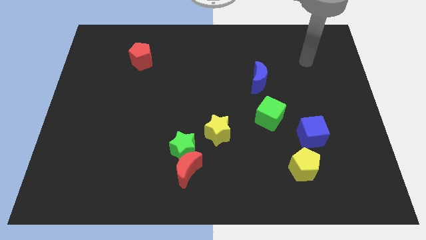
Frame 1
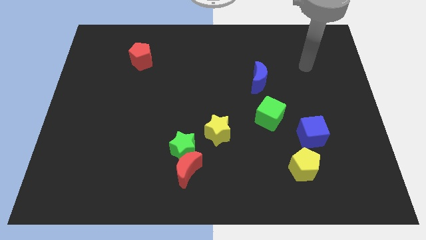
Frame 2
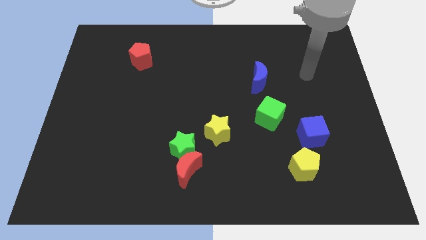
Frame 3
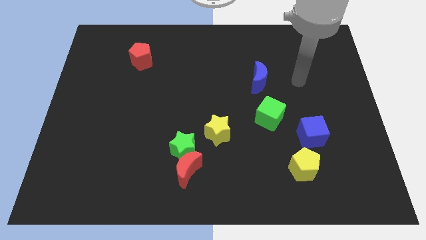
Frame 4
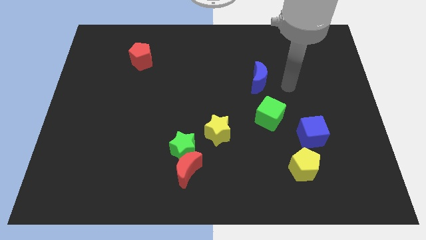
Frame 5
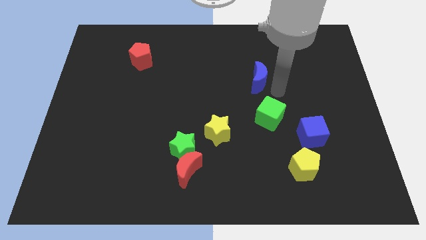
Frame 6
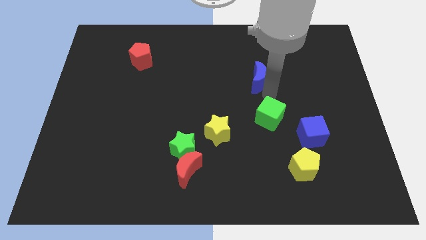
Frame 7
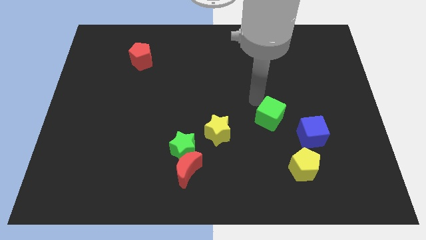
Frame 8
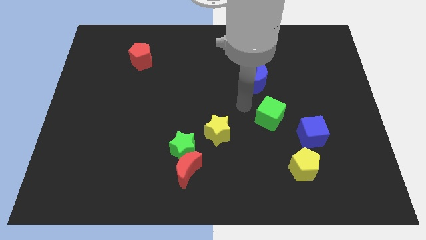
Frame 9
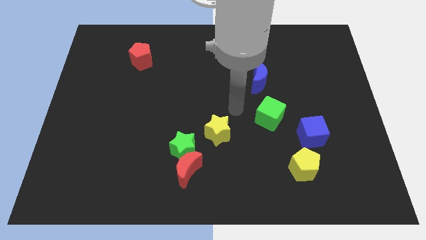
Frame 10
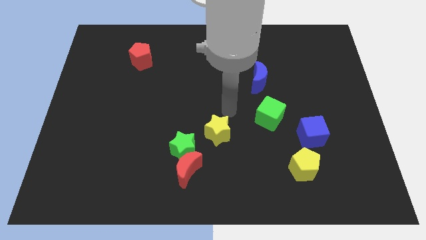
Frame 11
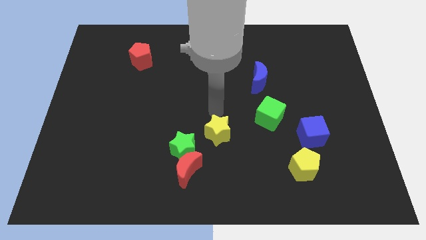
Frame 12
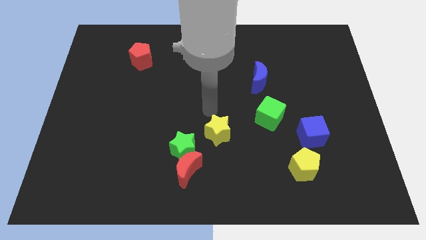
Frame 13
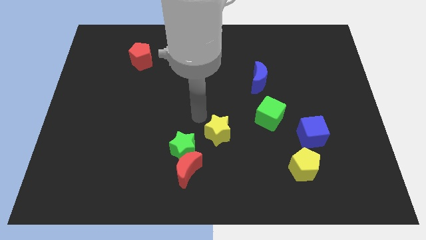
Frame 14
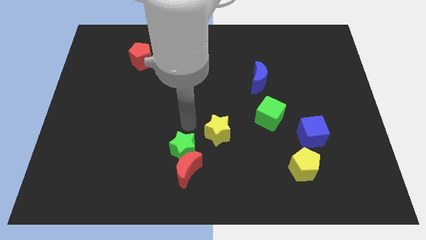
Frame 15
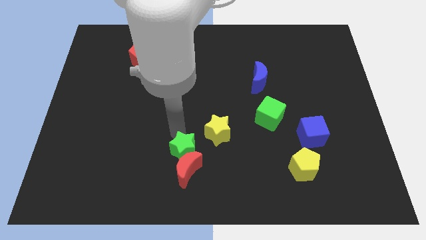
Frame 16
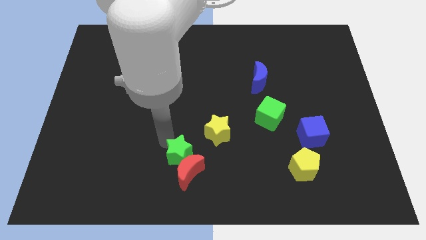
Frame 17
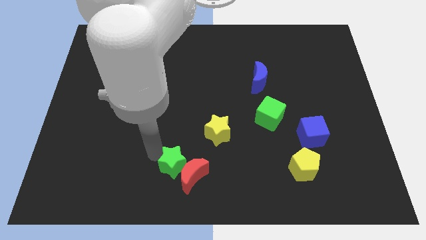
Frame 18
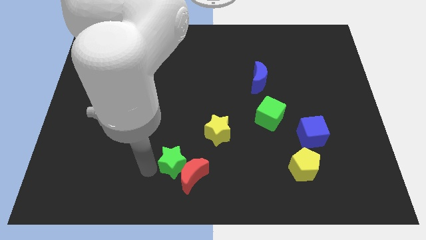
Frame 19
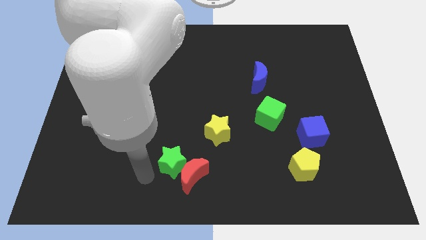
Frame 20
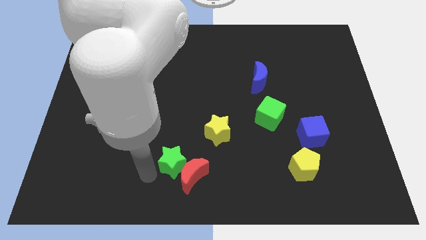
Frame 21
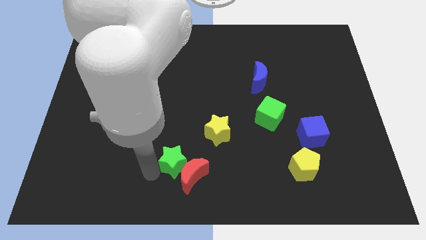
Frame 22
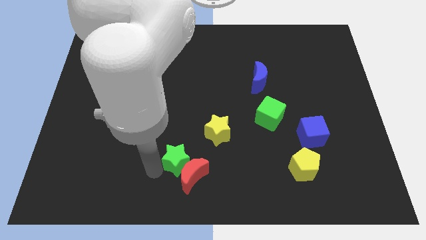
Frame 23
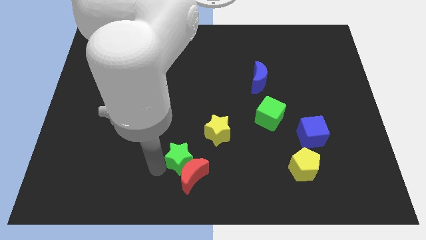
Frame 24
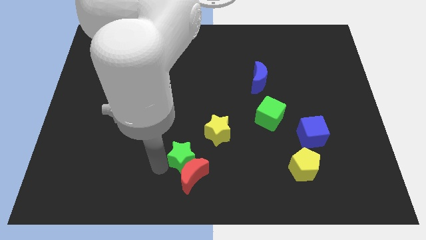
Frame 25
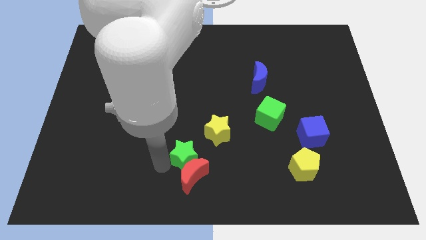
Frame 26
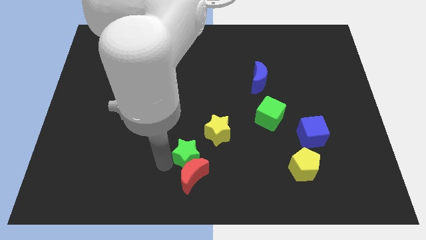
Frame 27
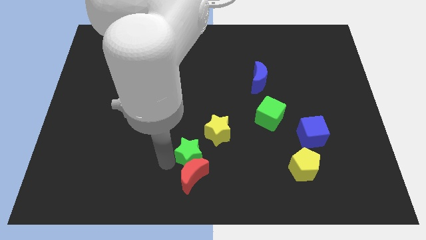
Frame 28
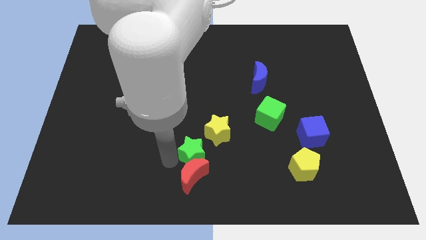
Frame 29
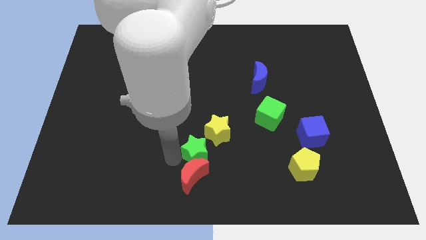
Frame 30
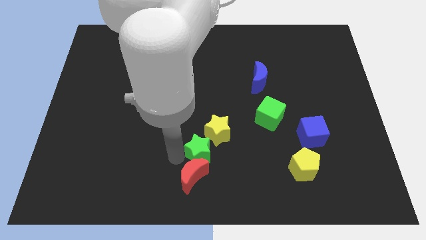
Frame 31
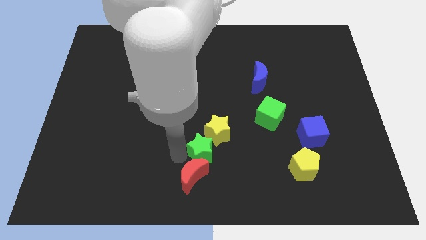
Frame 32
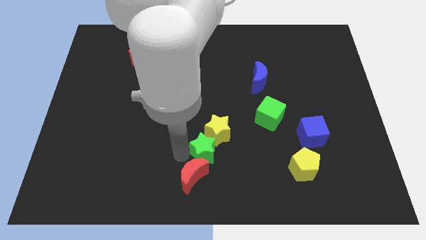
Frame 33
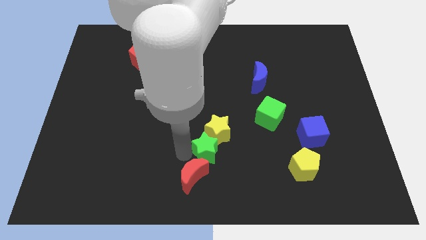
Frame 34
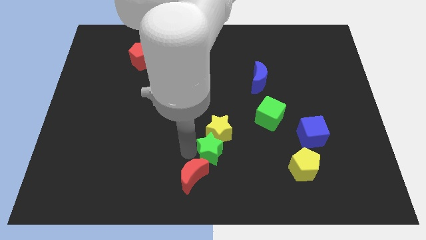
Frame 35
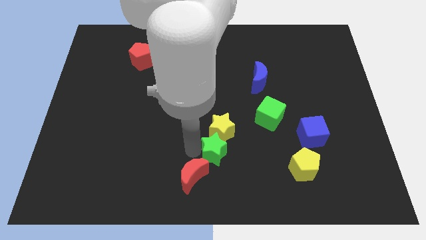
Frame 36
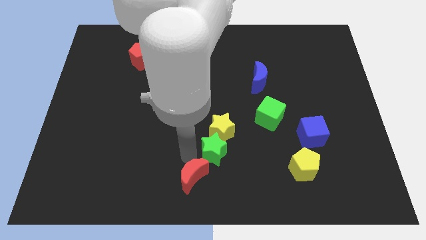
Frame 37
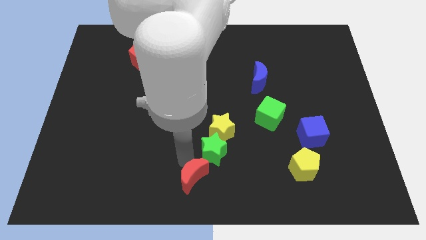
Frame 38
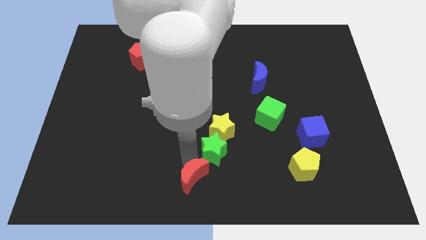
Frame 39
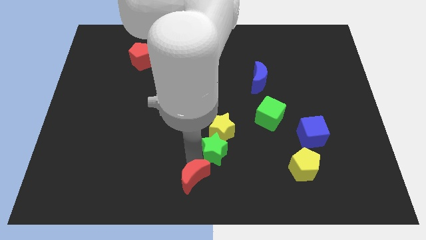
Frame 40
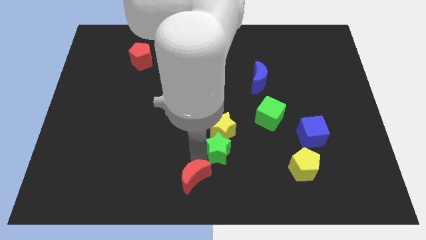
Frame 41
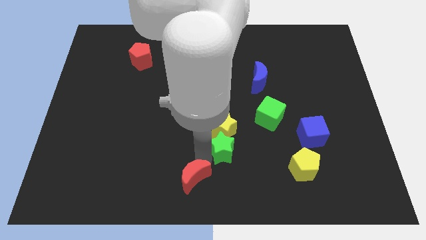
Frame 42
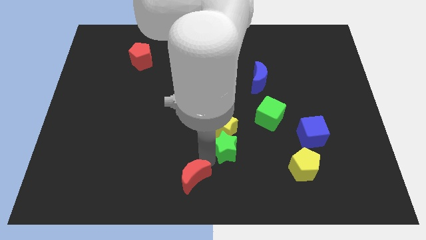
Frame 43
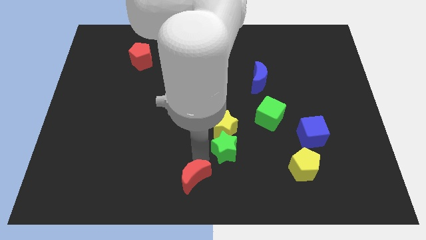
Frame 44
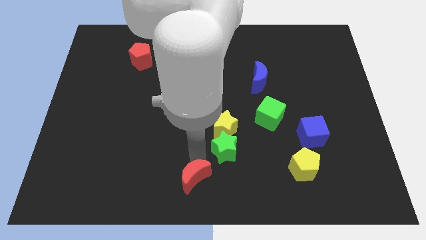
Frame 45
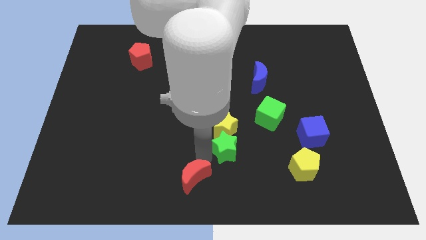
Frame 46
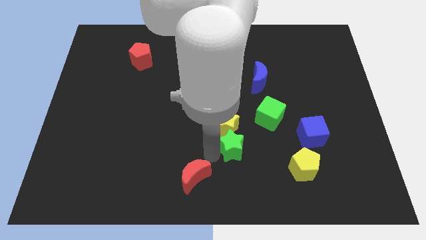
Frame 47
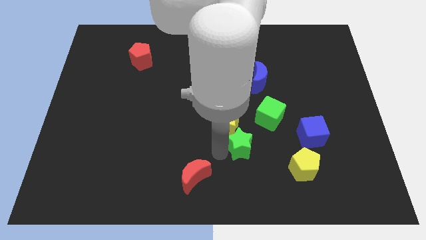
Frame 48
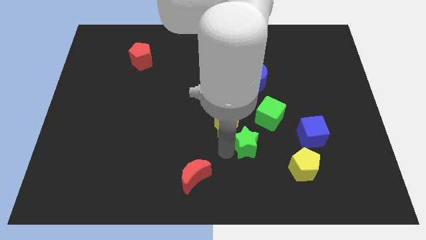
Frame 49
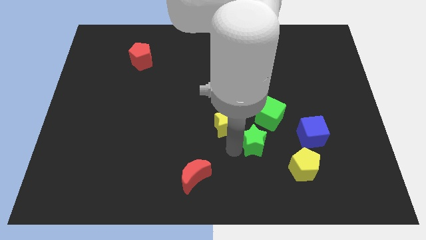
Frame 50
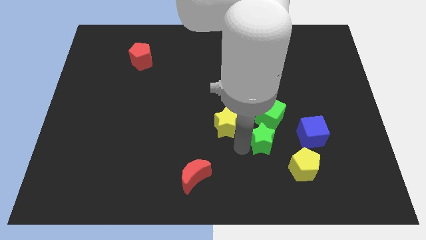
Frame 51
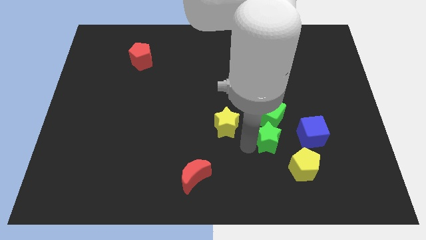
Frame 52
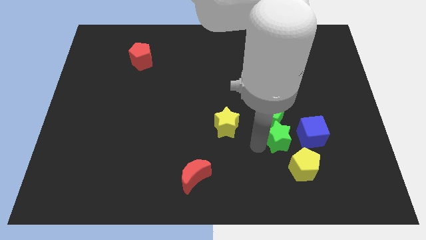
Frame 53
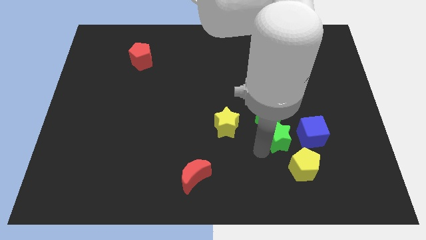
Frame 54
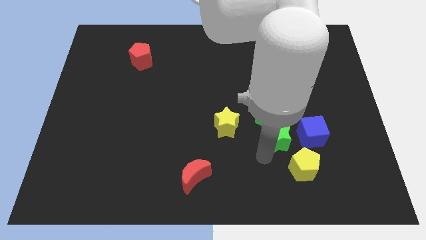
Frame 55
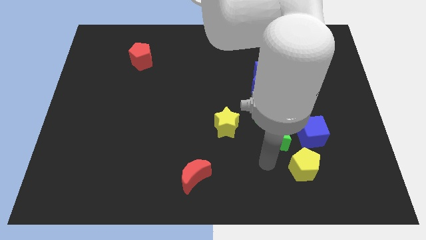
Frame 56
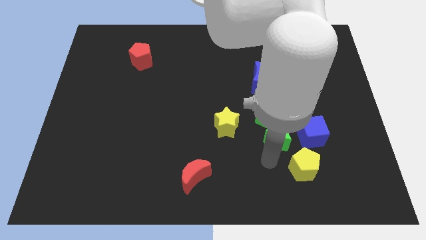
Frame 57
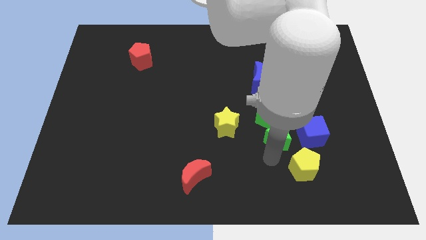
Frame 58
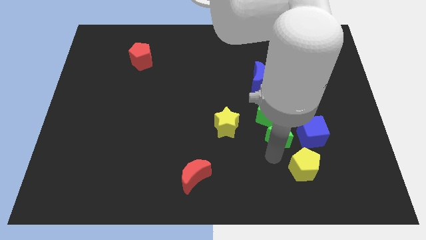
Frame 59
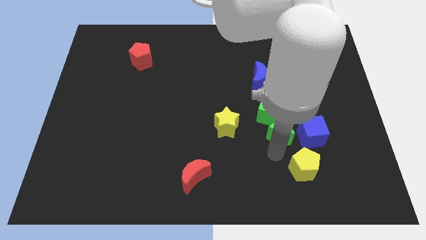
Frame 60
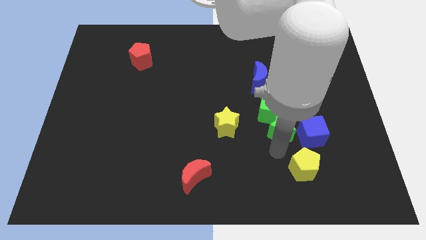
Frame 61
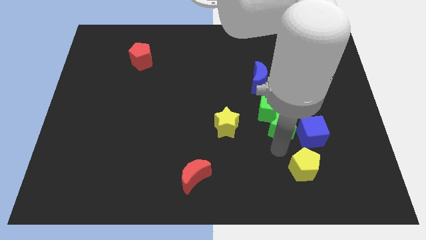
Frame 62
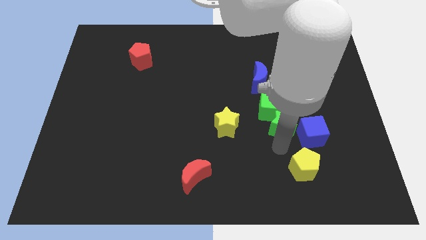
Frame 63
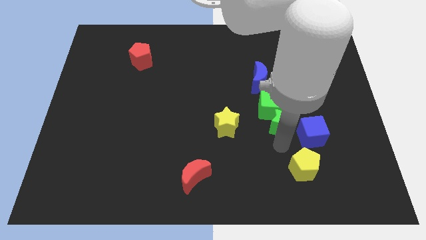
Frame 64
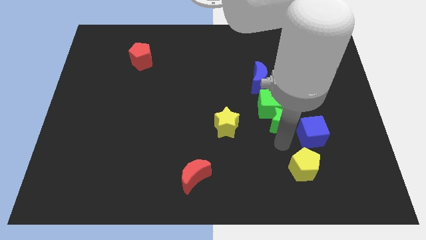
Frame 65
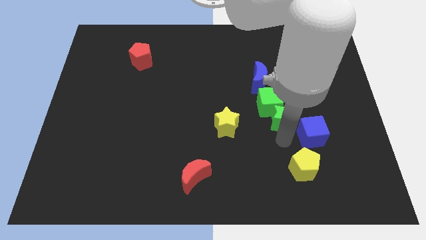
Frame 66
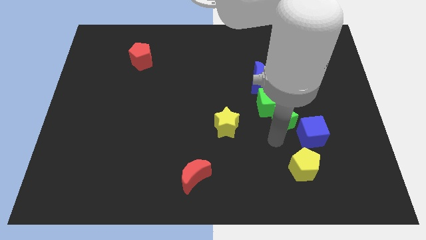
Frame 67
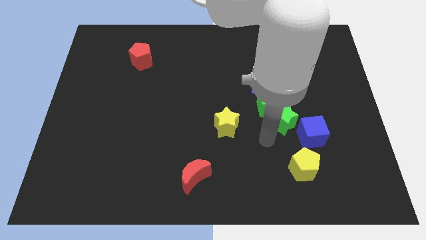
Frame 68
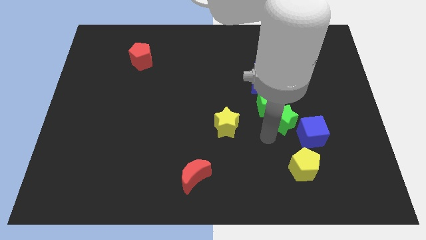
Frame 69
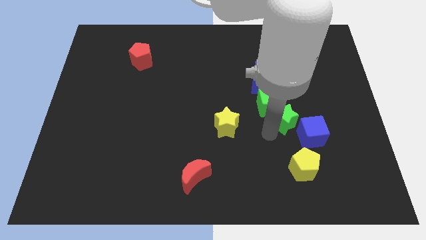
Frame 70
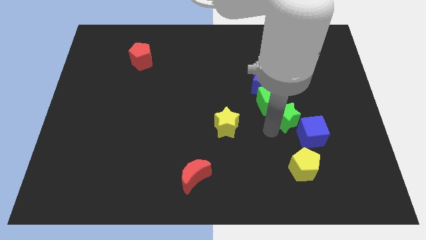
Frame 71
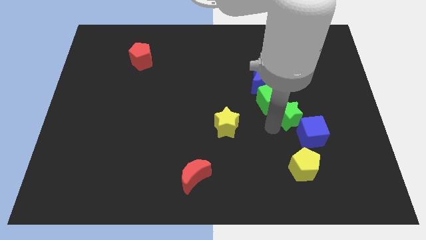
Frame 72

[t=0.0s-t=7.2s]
move the green star above the blue cube
